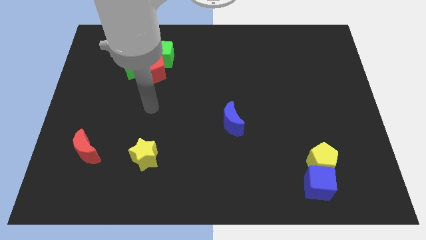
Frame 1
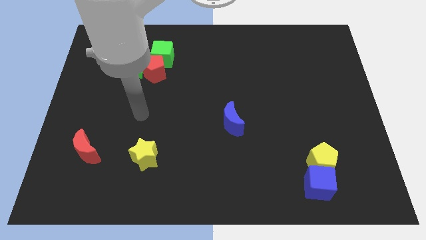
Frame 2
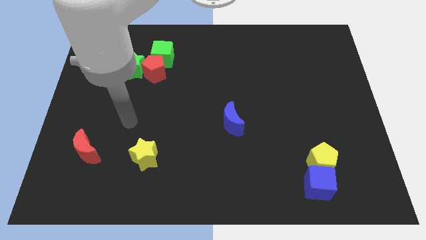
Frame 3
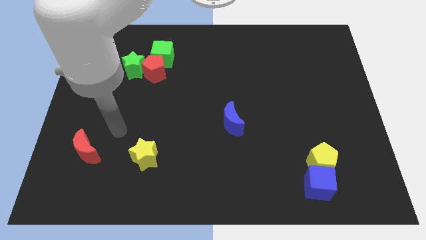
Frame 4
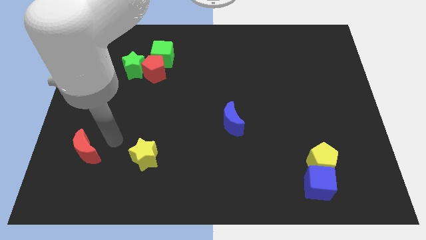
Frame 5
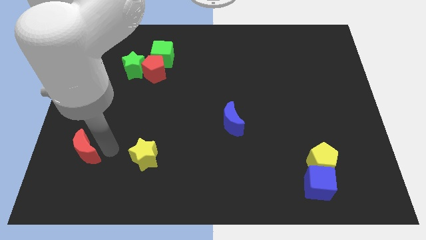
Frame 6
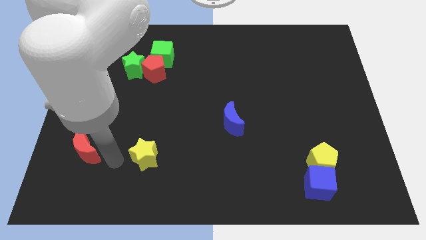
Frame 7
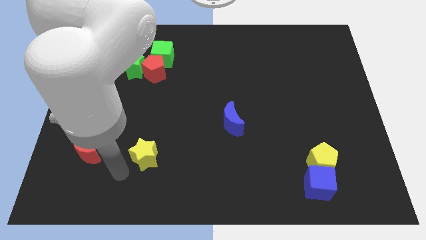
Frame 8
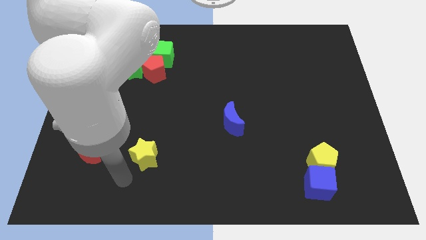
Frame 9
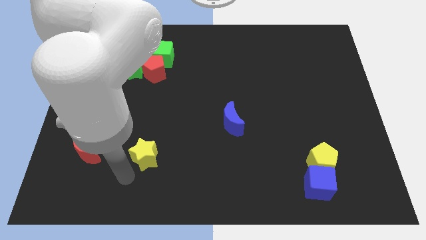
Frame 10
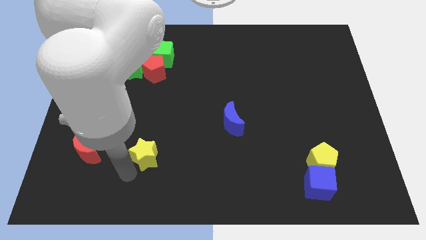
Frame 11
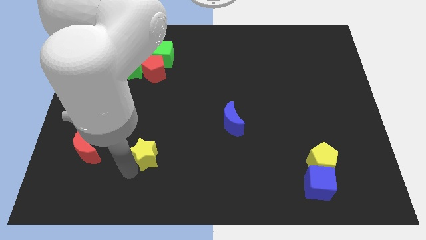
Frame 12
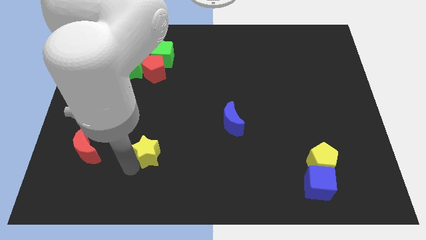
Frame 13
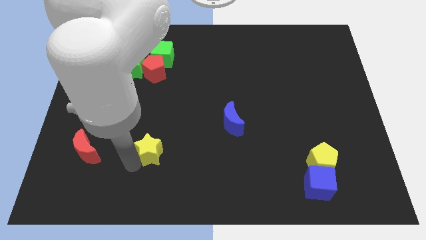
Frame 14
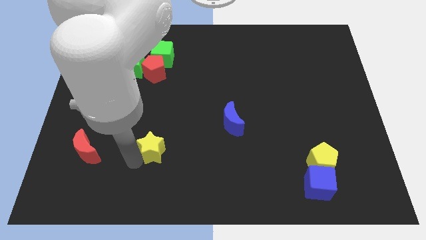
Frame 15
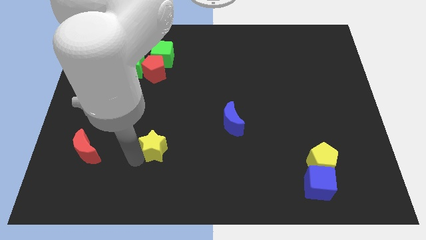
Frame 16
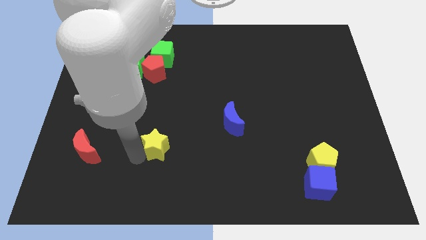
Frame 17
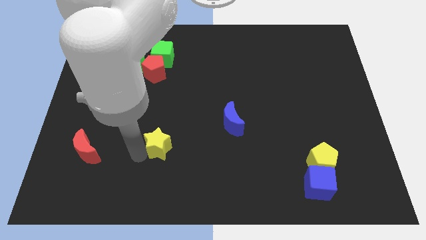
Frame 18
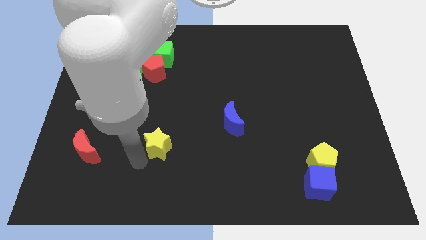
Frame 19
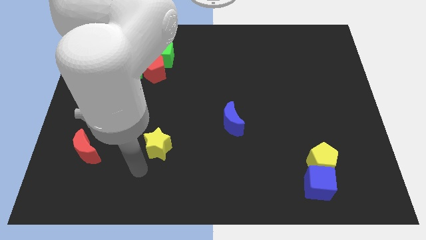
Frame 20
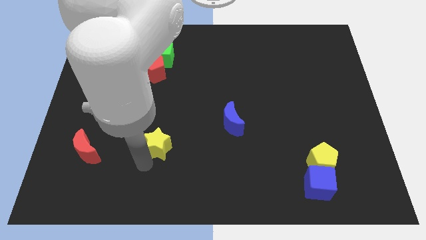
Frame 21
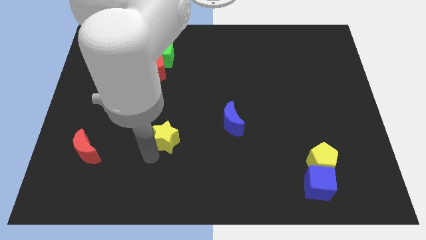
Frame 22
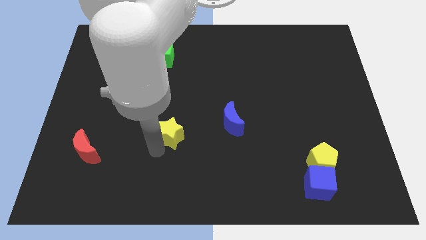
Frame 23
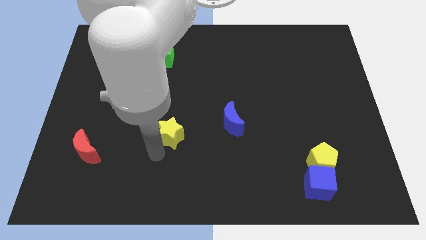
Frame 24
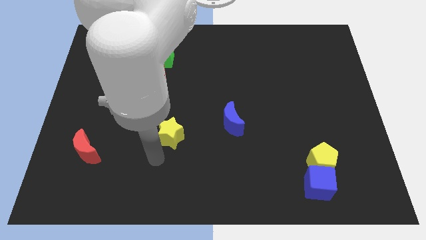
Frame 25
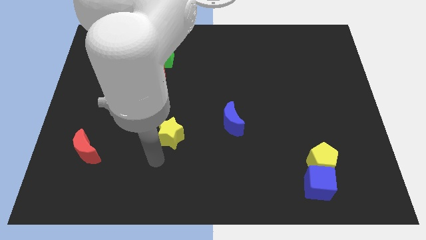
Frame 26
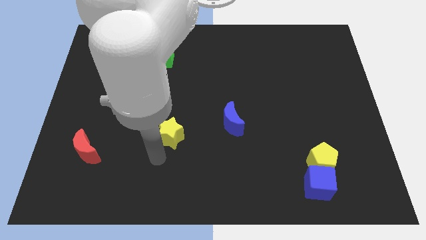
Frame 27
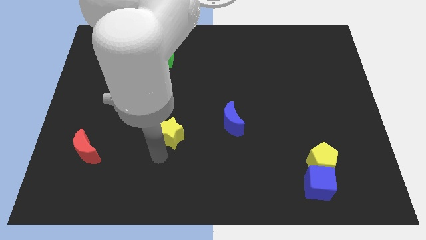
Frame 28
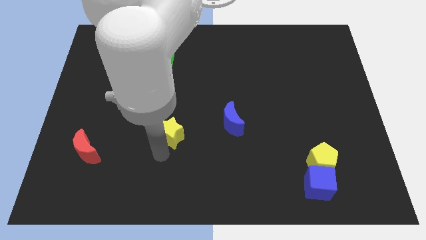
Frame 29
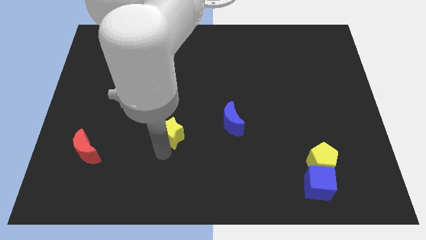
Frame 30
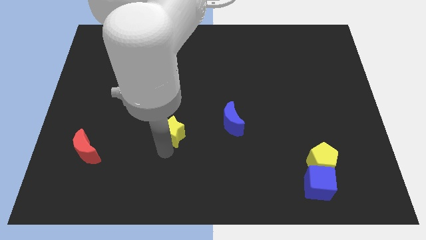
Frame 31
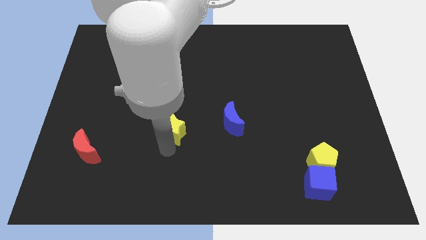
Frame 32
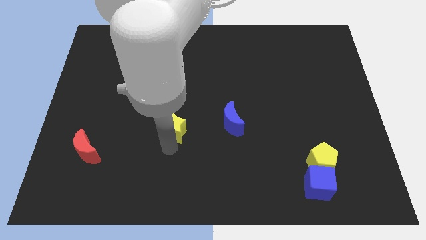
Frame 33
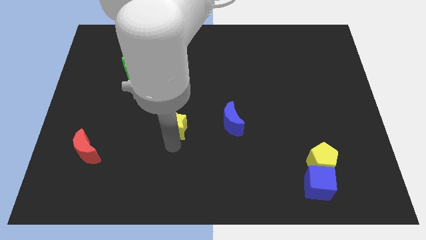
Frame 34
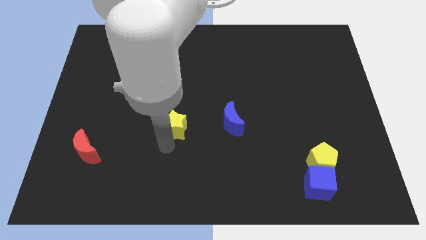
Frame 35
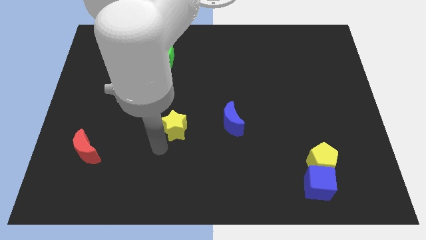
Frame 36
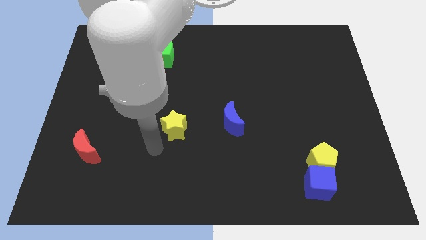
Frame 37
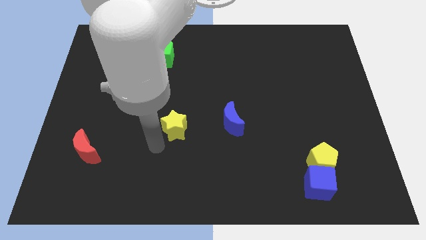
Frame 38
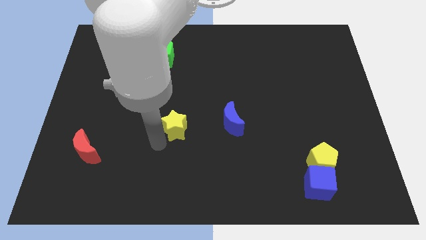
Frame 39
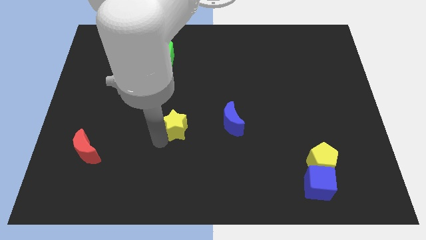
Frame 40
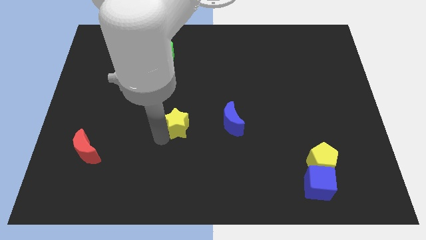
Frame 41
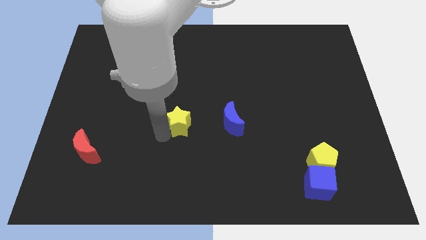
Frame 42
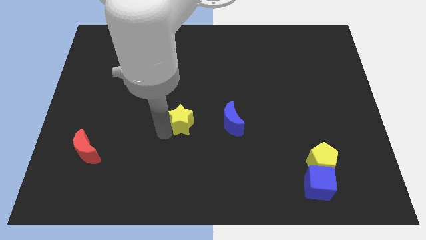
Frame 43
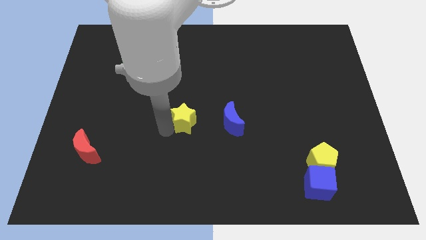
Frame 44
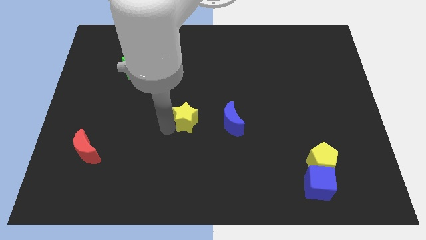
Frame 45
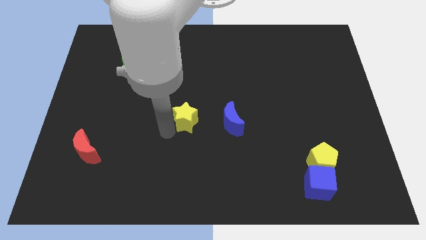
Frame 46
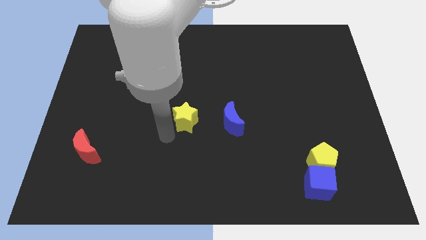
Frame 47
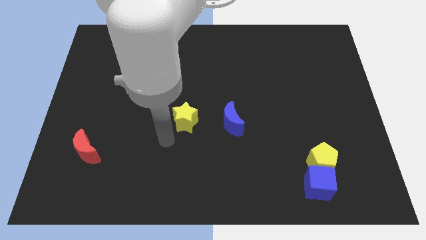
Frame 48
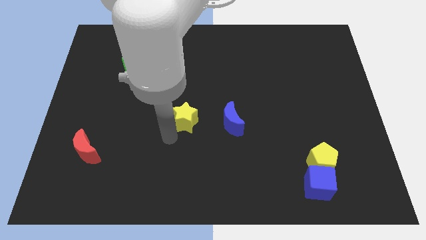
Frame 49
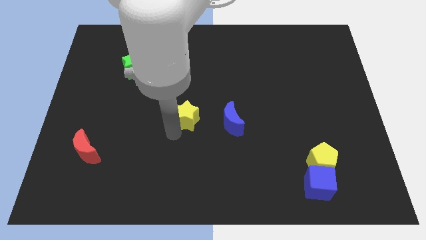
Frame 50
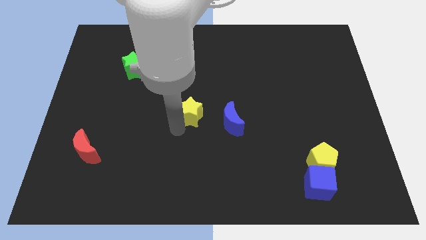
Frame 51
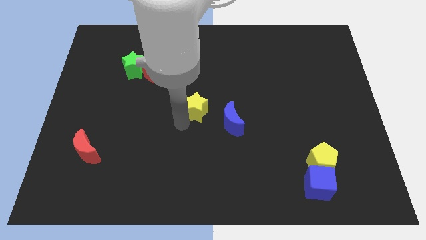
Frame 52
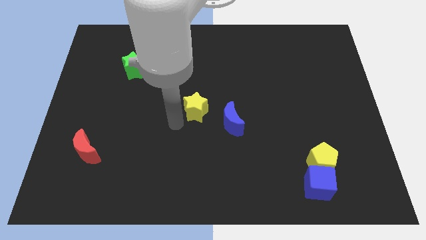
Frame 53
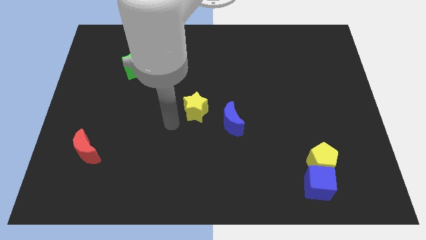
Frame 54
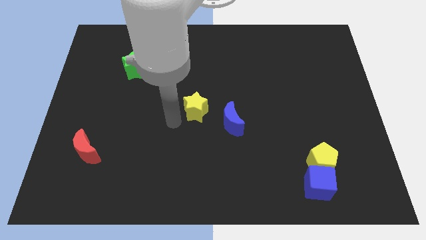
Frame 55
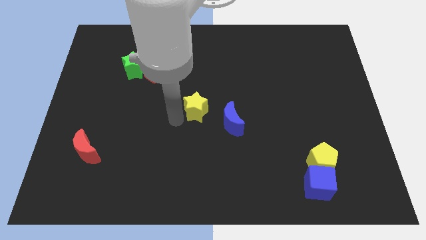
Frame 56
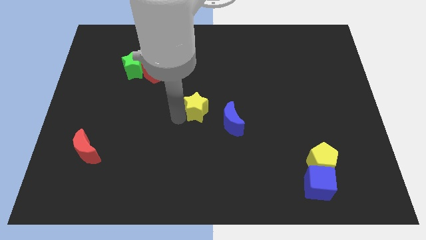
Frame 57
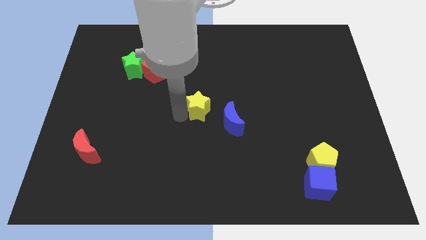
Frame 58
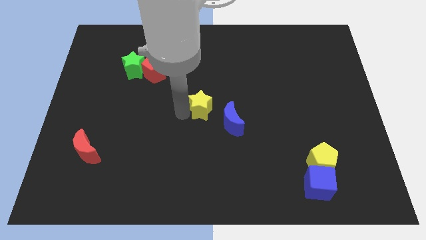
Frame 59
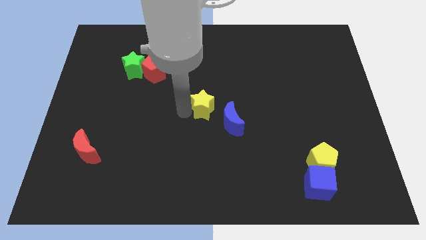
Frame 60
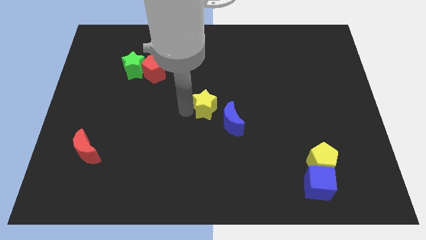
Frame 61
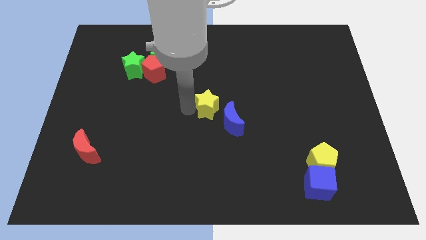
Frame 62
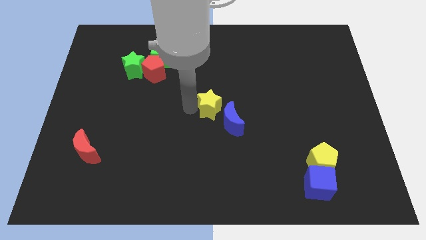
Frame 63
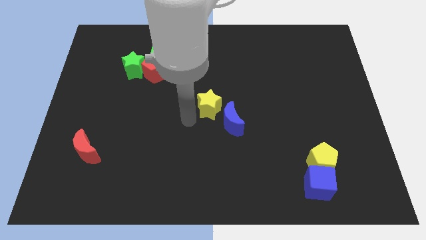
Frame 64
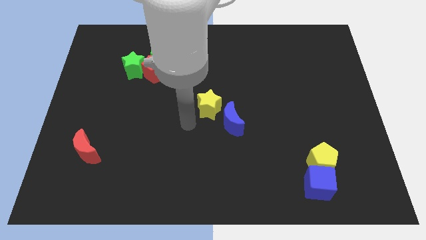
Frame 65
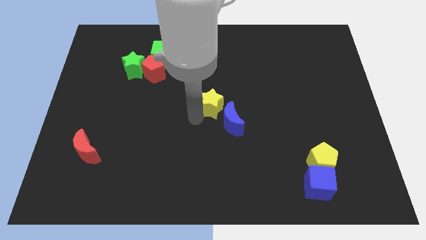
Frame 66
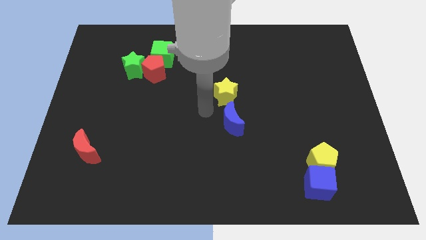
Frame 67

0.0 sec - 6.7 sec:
move the yellow star up and then right

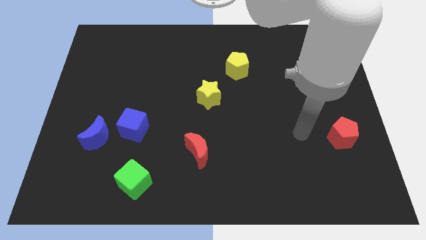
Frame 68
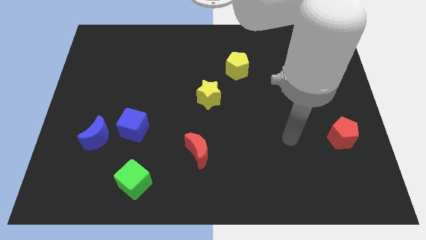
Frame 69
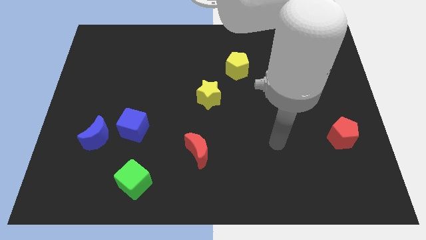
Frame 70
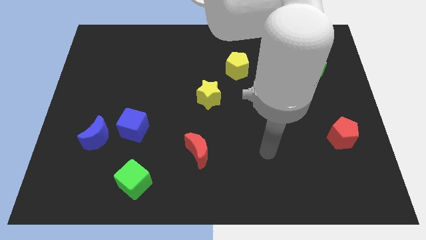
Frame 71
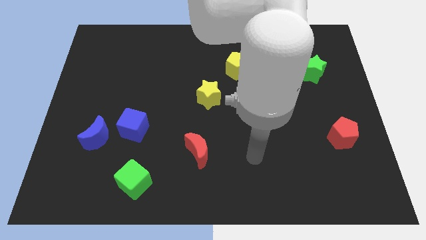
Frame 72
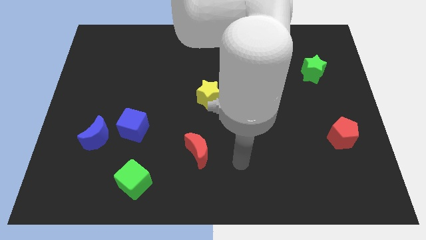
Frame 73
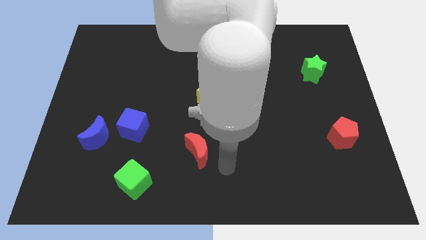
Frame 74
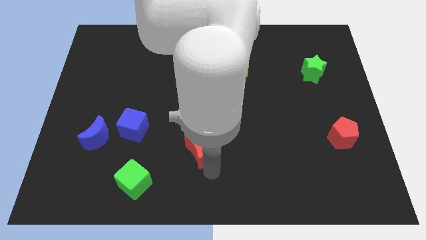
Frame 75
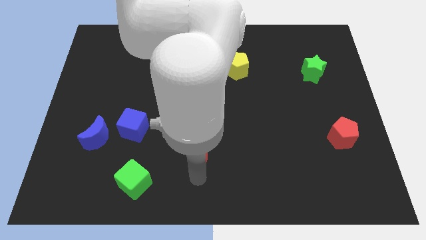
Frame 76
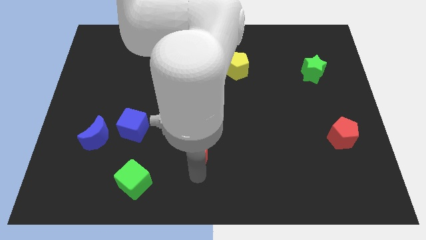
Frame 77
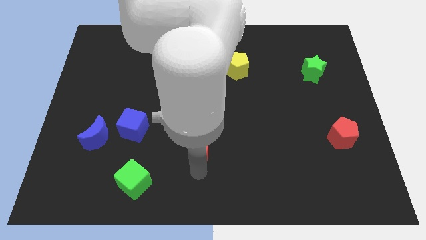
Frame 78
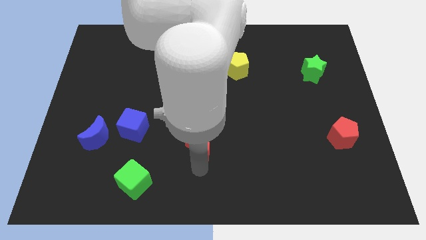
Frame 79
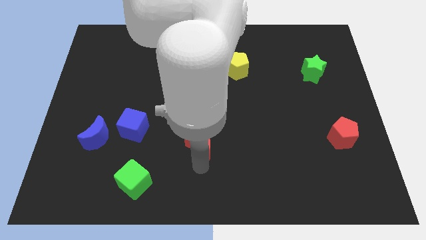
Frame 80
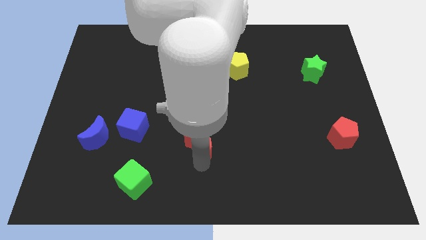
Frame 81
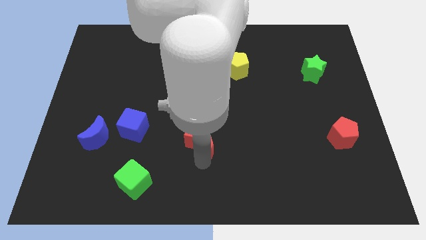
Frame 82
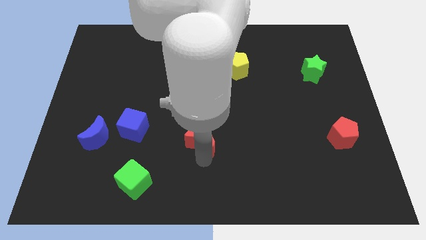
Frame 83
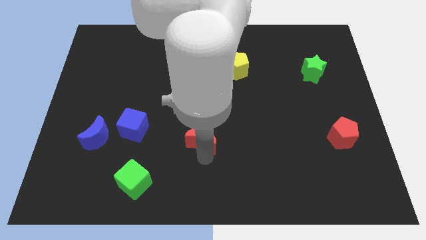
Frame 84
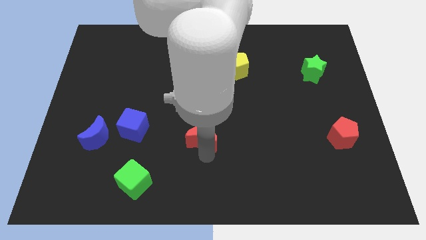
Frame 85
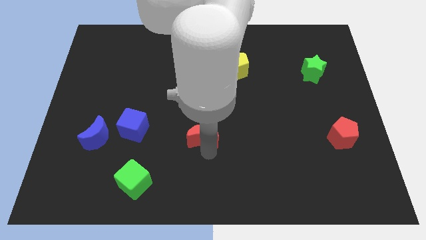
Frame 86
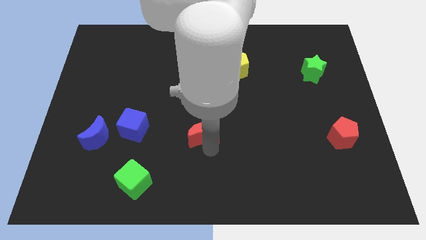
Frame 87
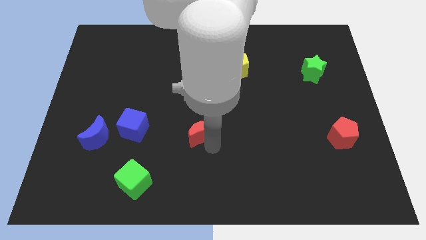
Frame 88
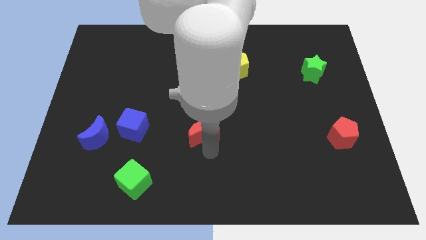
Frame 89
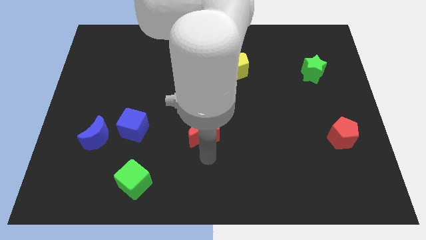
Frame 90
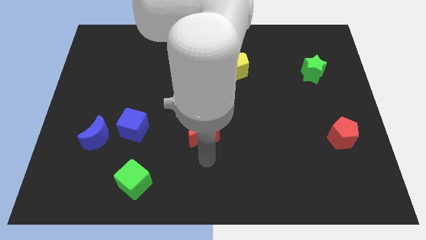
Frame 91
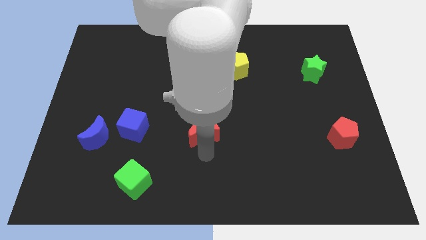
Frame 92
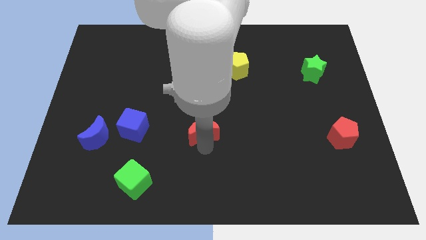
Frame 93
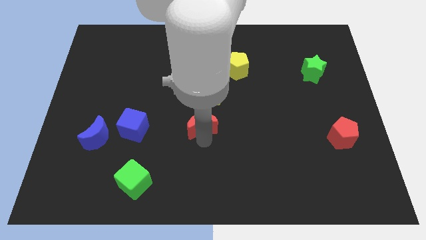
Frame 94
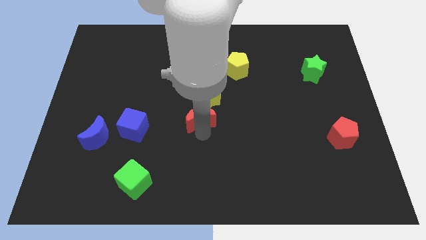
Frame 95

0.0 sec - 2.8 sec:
slide the red moon somewhat up
